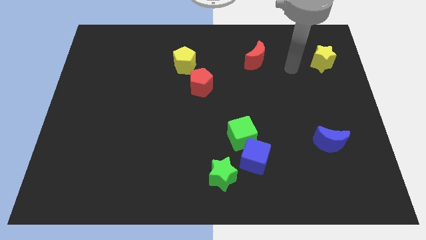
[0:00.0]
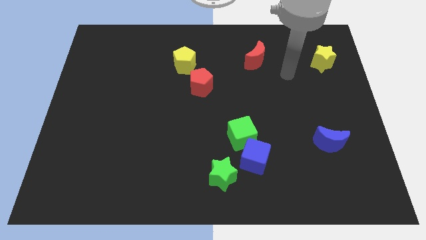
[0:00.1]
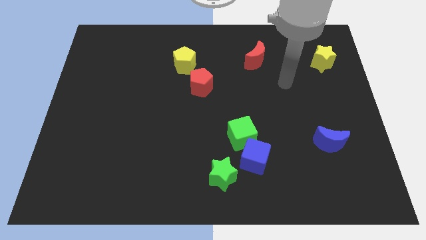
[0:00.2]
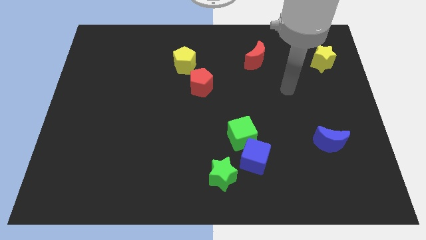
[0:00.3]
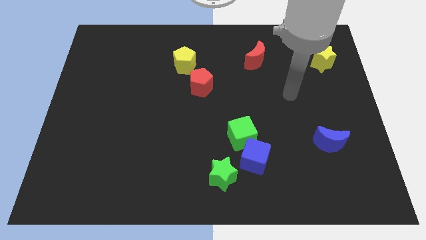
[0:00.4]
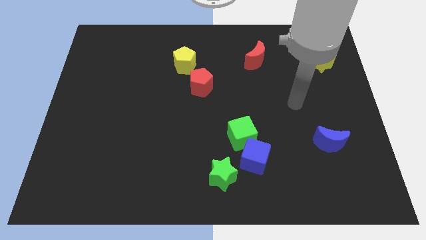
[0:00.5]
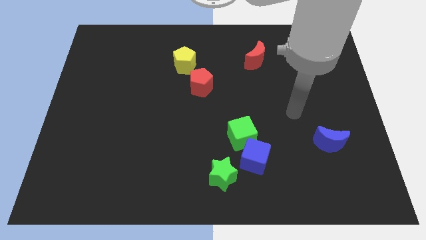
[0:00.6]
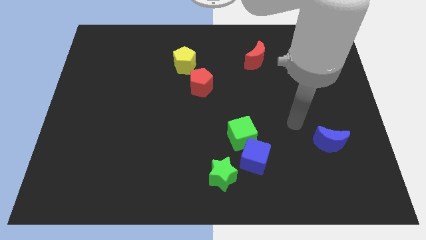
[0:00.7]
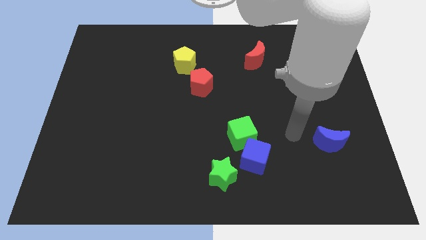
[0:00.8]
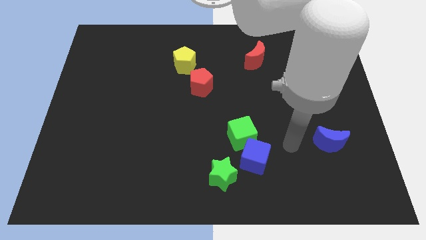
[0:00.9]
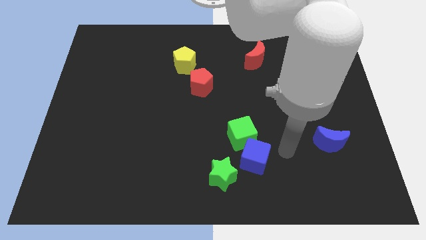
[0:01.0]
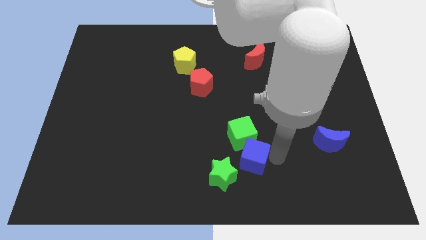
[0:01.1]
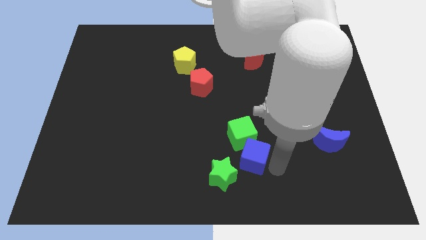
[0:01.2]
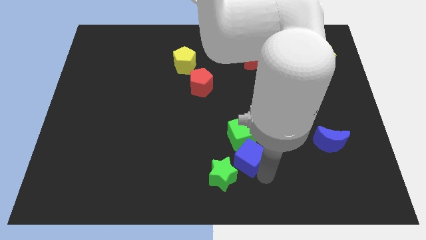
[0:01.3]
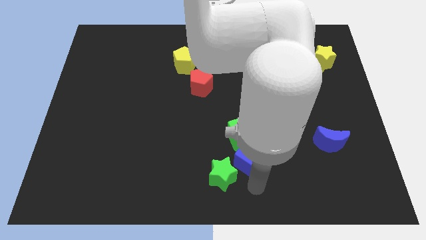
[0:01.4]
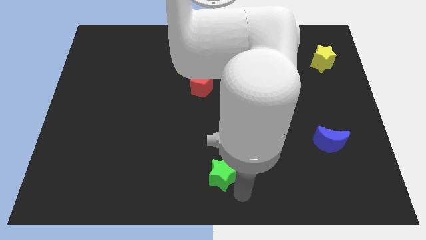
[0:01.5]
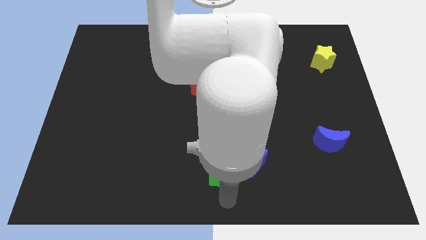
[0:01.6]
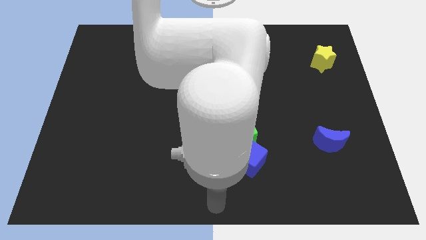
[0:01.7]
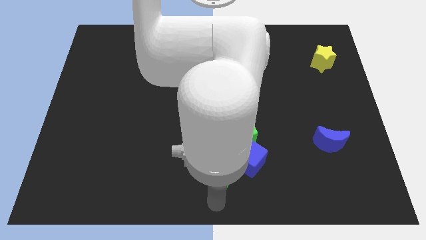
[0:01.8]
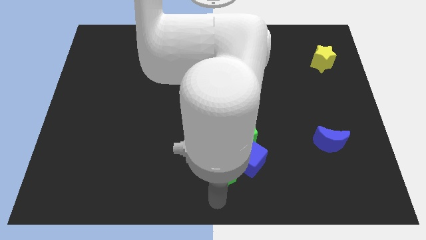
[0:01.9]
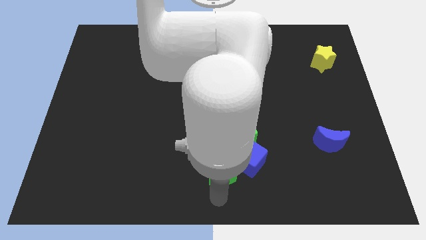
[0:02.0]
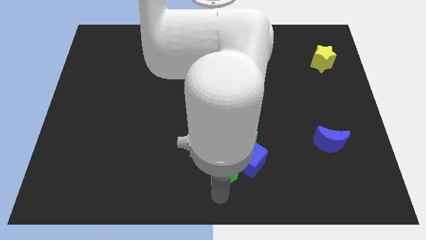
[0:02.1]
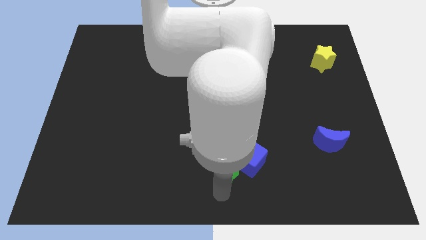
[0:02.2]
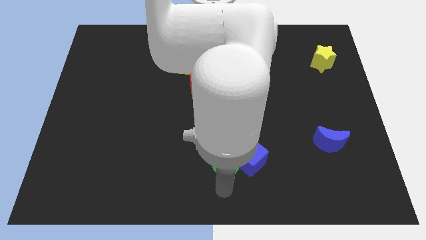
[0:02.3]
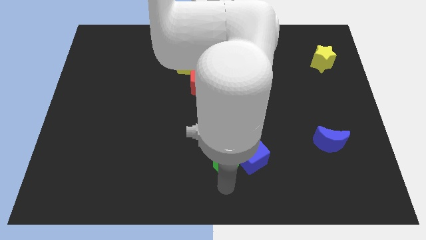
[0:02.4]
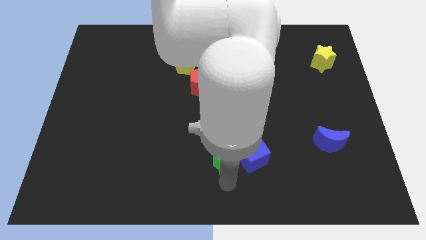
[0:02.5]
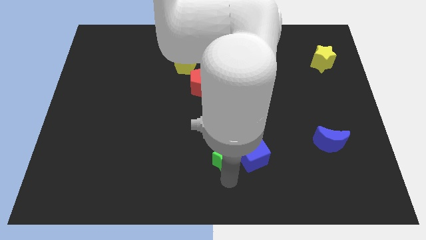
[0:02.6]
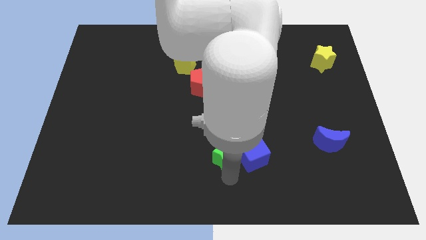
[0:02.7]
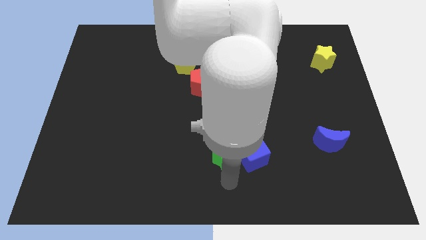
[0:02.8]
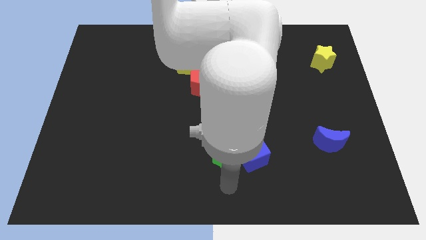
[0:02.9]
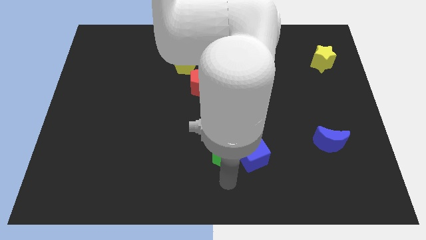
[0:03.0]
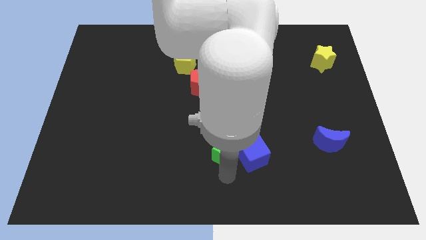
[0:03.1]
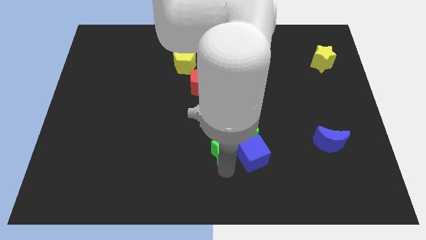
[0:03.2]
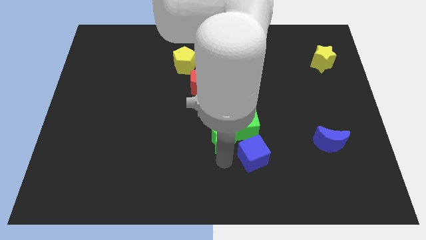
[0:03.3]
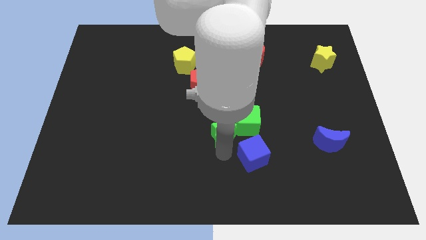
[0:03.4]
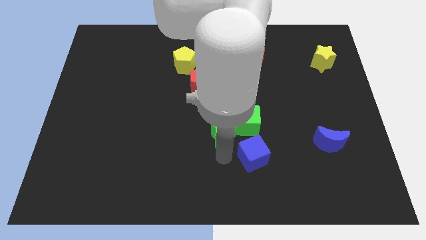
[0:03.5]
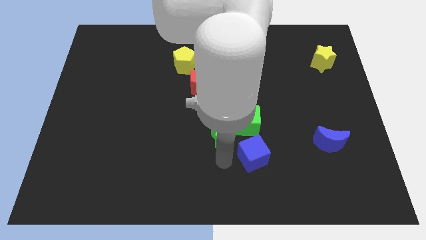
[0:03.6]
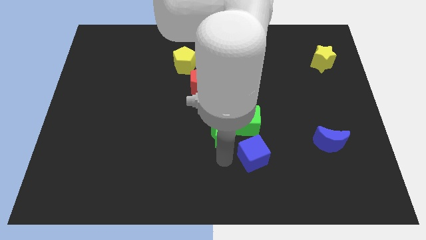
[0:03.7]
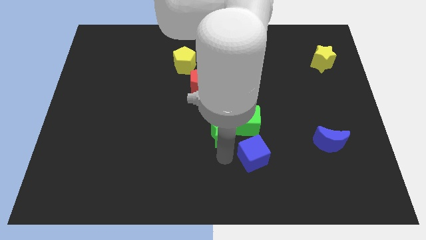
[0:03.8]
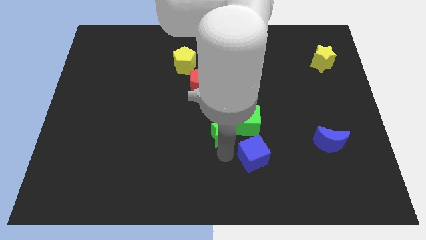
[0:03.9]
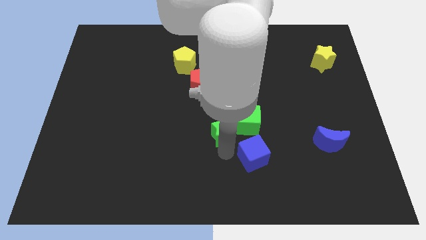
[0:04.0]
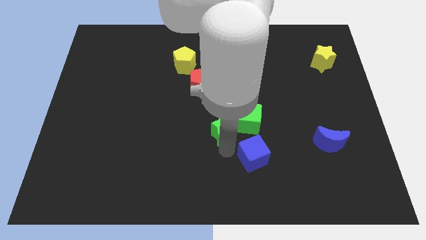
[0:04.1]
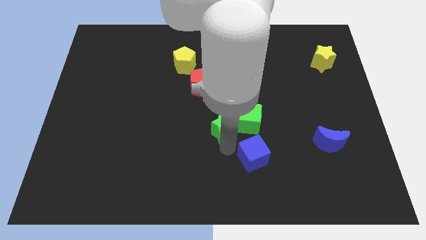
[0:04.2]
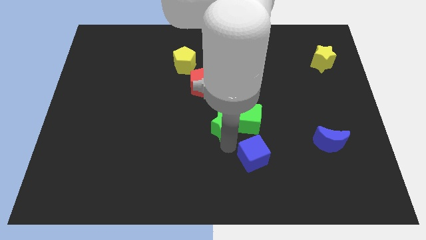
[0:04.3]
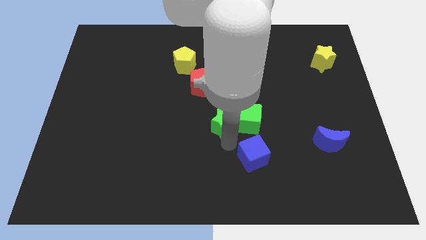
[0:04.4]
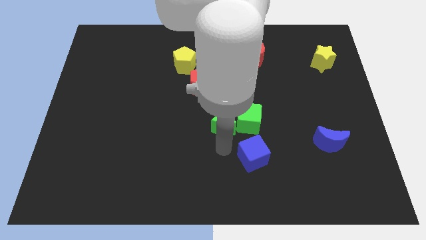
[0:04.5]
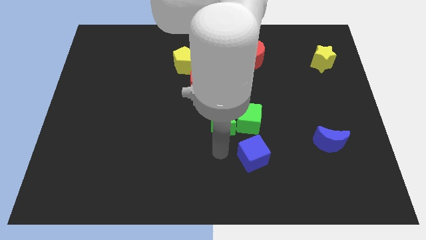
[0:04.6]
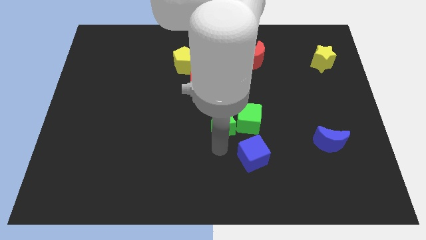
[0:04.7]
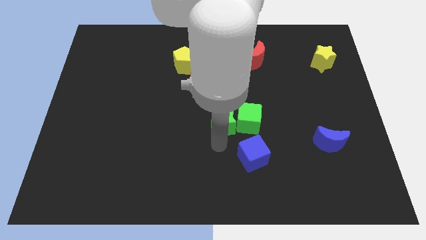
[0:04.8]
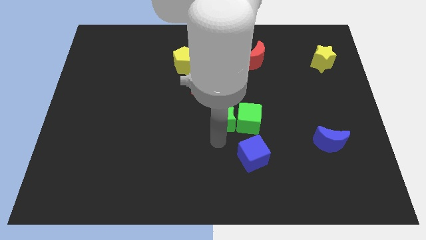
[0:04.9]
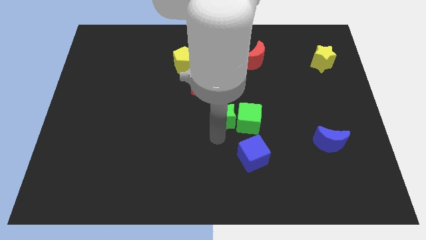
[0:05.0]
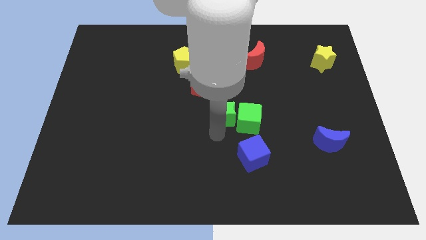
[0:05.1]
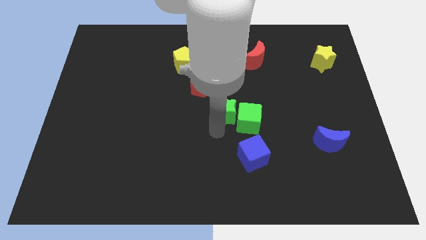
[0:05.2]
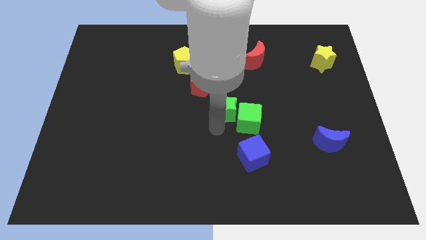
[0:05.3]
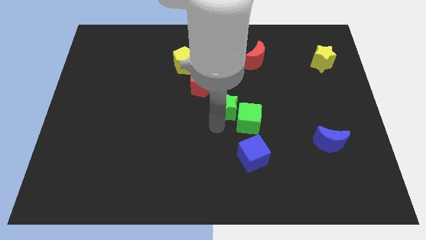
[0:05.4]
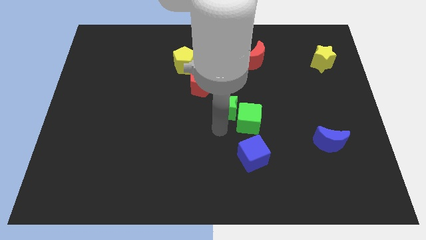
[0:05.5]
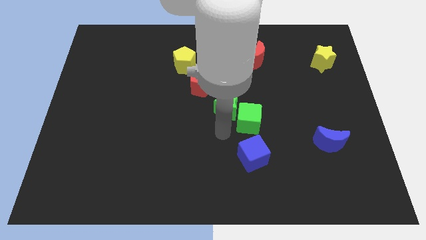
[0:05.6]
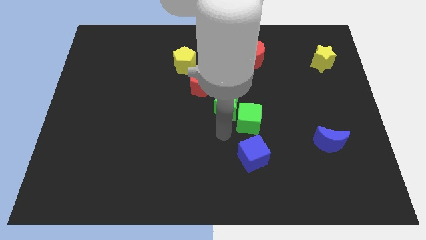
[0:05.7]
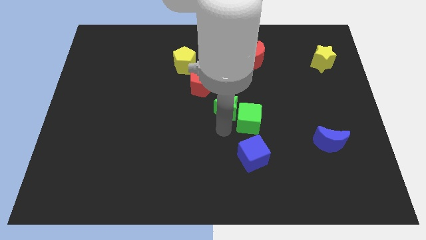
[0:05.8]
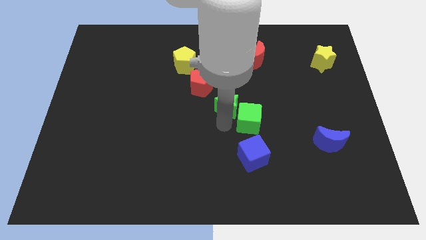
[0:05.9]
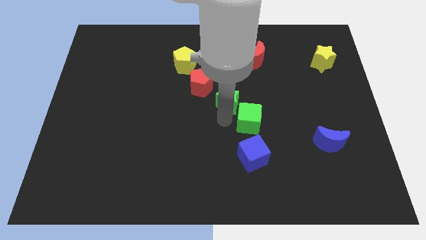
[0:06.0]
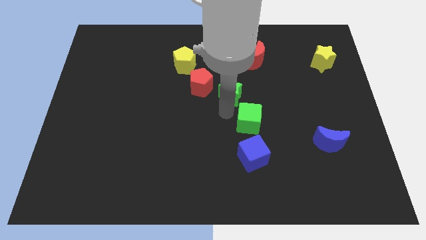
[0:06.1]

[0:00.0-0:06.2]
slide the green star up

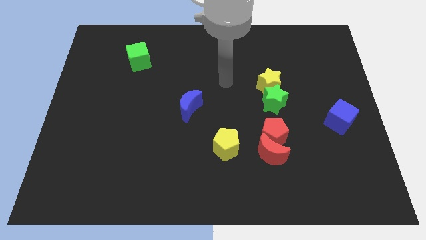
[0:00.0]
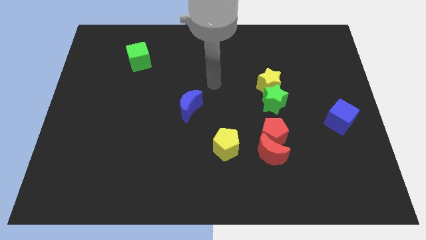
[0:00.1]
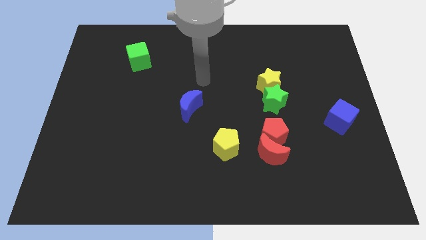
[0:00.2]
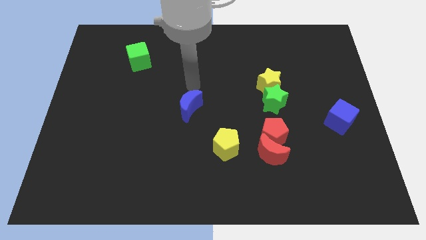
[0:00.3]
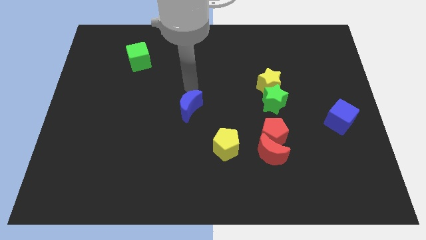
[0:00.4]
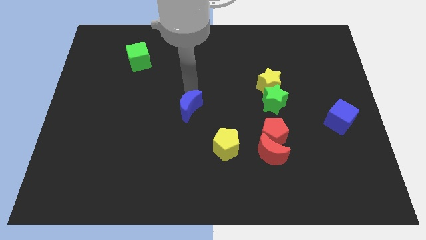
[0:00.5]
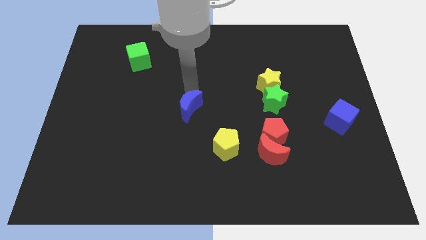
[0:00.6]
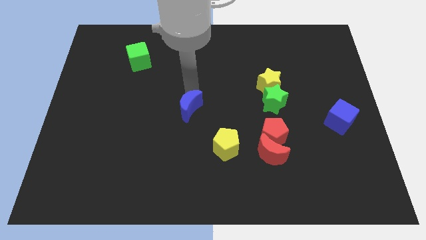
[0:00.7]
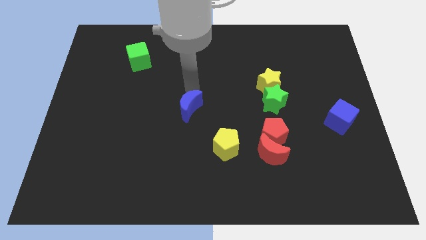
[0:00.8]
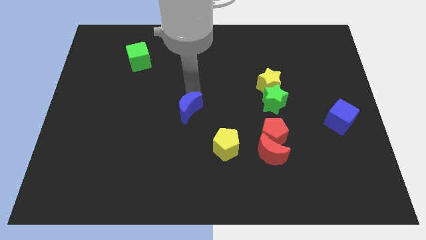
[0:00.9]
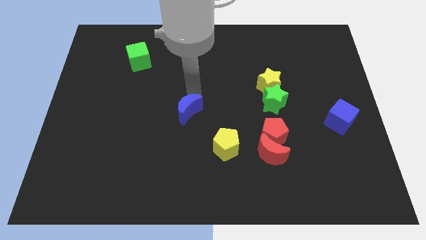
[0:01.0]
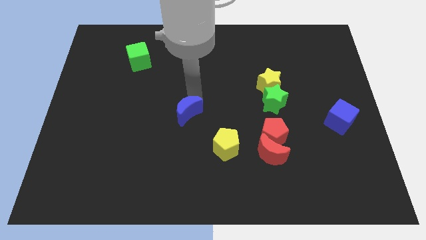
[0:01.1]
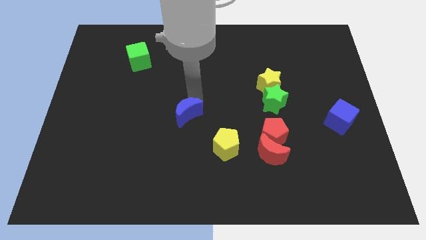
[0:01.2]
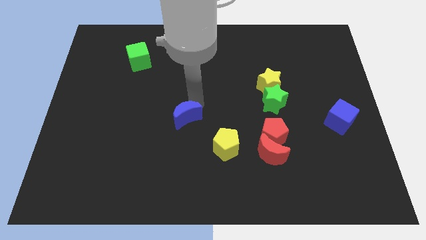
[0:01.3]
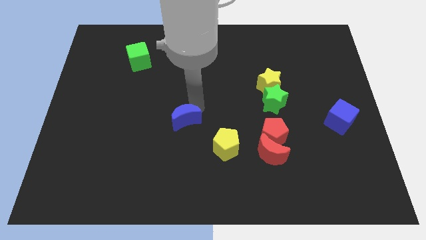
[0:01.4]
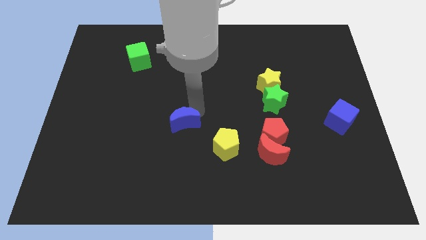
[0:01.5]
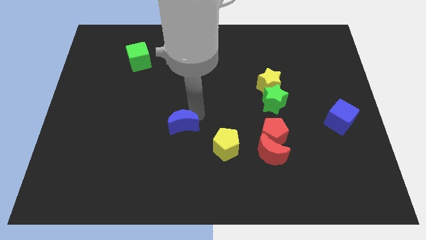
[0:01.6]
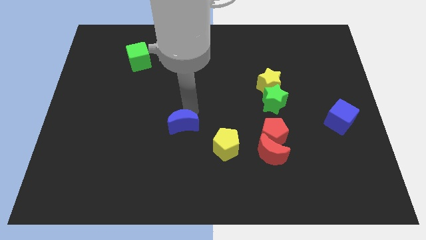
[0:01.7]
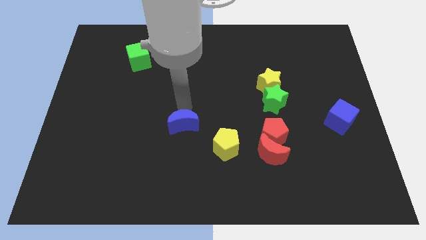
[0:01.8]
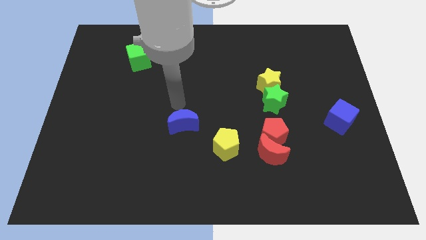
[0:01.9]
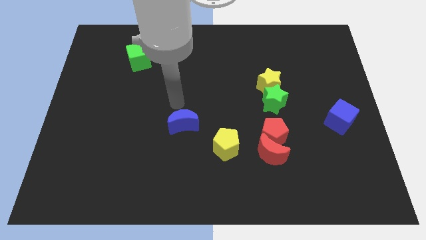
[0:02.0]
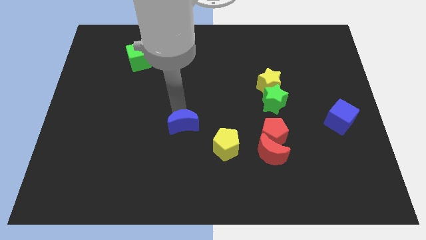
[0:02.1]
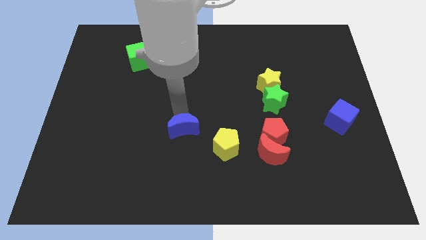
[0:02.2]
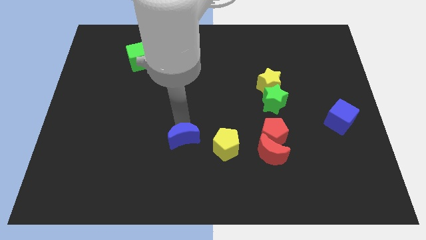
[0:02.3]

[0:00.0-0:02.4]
push the blue moon a little down
